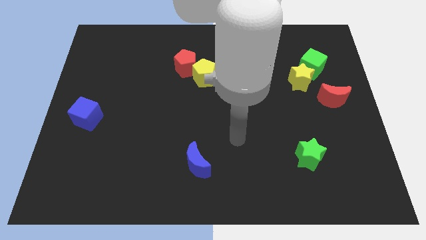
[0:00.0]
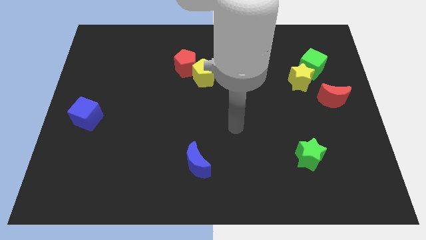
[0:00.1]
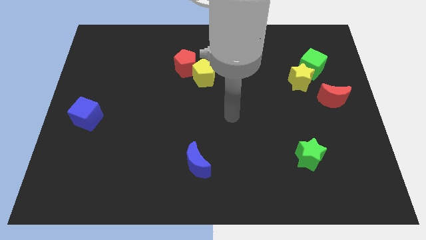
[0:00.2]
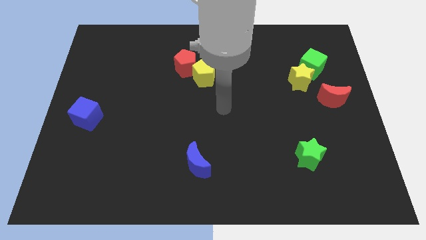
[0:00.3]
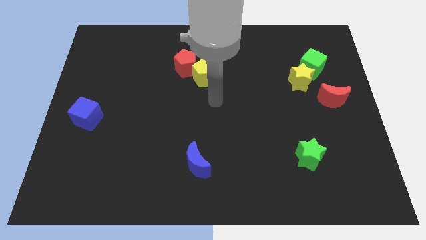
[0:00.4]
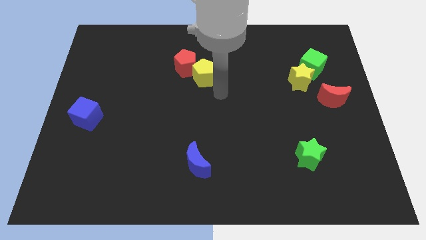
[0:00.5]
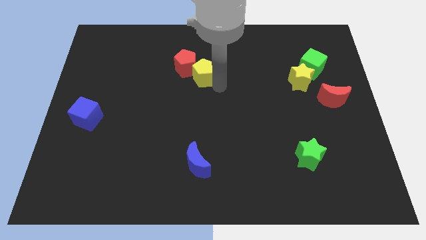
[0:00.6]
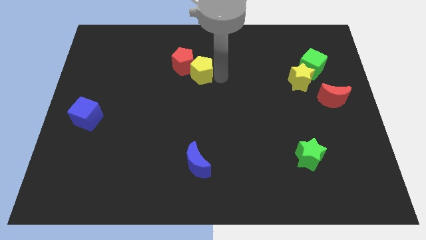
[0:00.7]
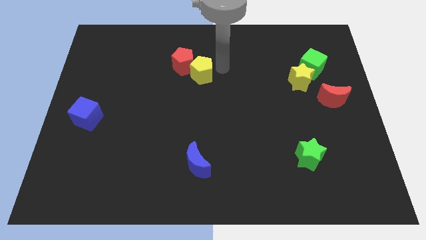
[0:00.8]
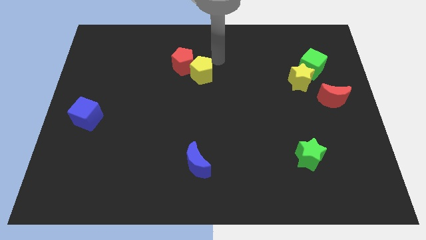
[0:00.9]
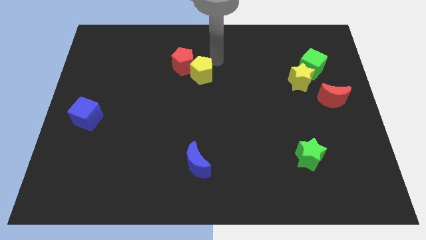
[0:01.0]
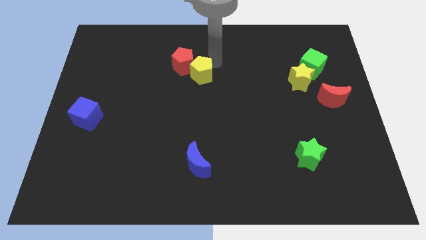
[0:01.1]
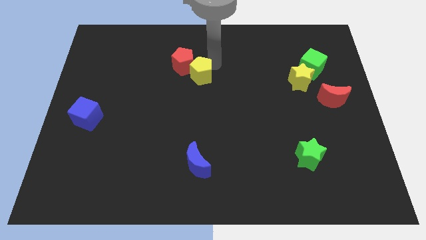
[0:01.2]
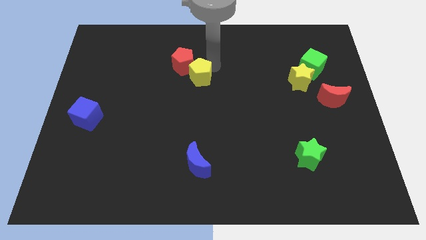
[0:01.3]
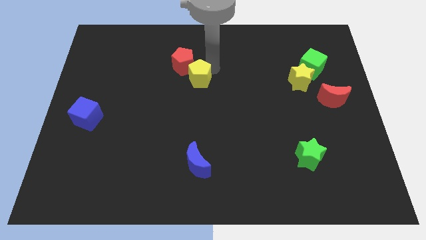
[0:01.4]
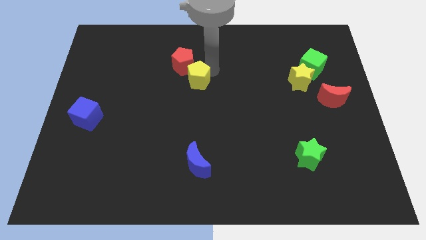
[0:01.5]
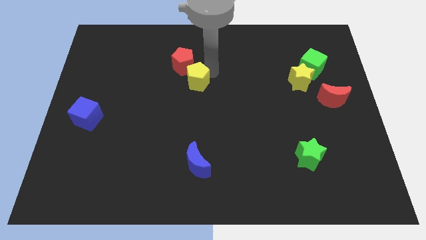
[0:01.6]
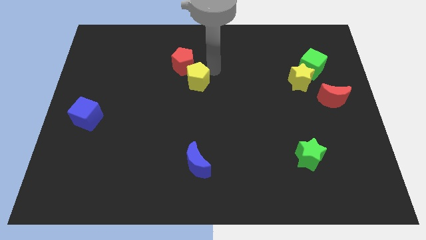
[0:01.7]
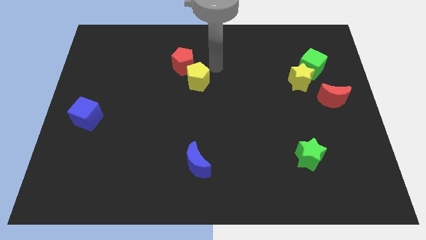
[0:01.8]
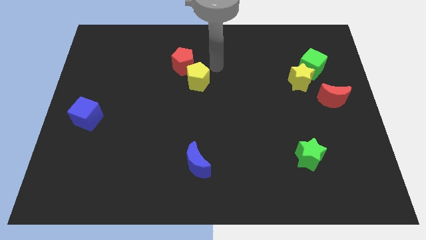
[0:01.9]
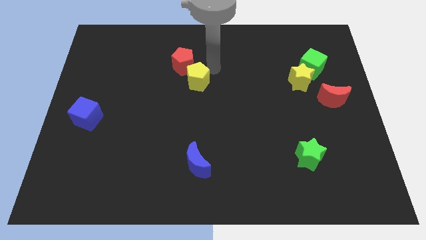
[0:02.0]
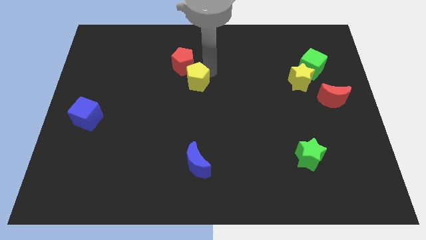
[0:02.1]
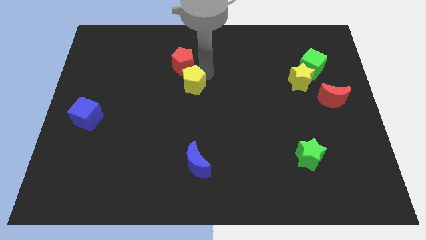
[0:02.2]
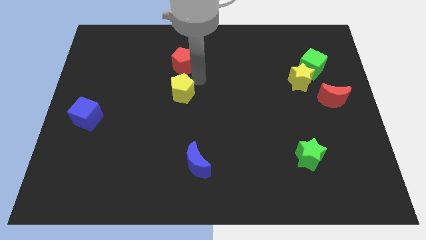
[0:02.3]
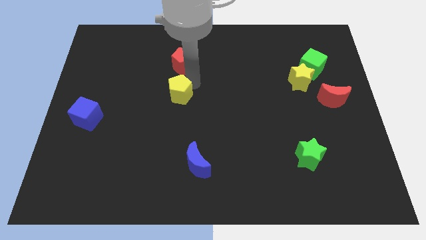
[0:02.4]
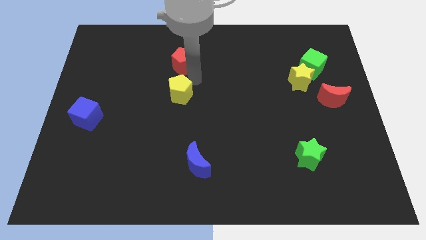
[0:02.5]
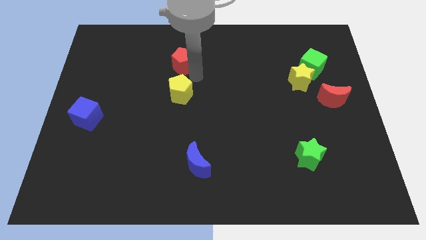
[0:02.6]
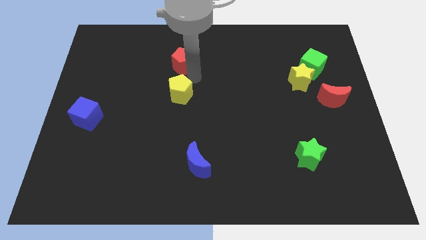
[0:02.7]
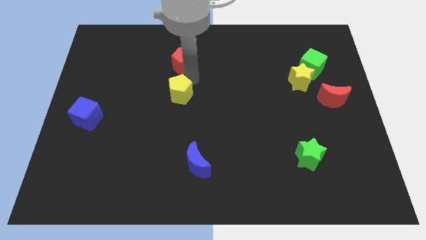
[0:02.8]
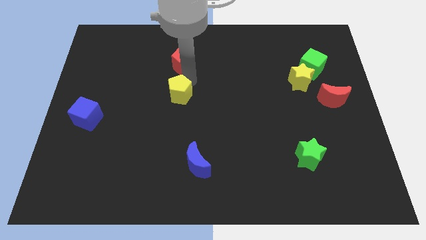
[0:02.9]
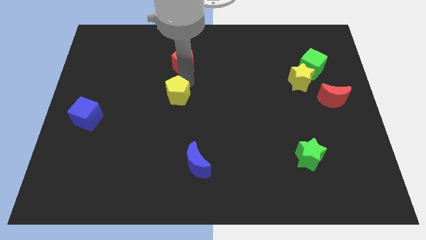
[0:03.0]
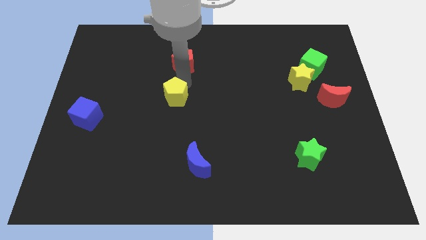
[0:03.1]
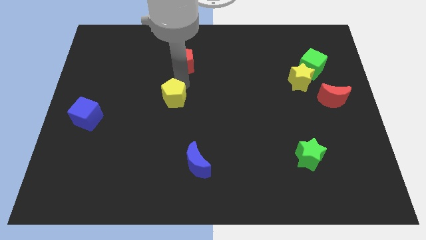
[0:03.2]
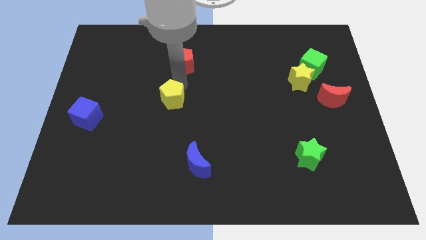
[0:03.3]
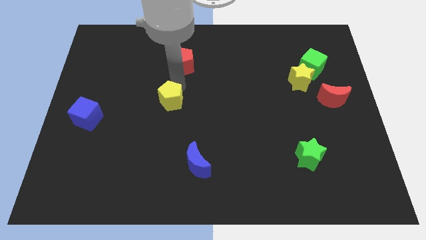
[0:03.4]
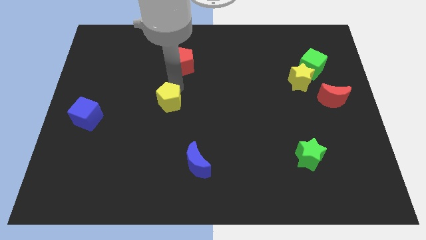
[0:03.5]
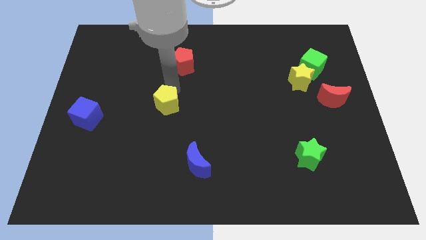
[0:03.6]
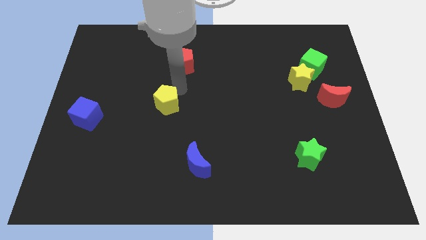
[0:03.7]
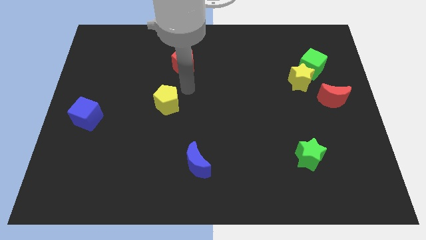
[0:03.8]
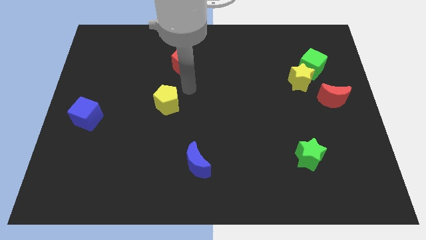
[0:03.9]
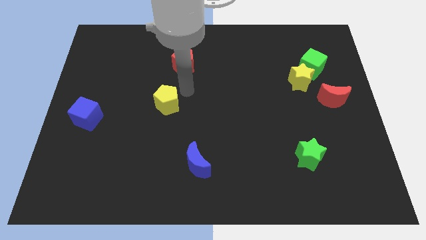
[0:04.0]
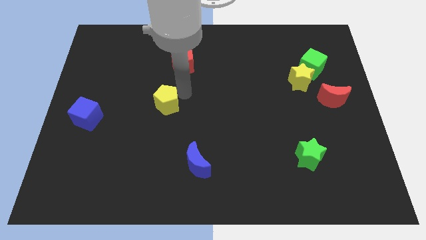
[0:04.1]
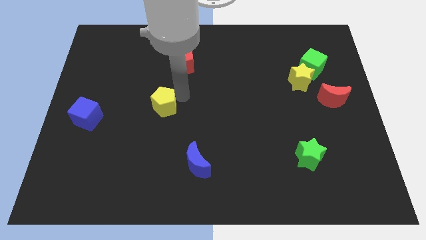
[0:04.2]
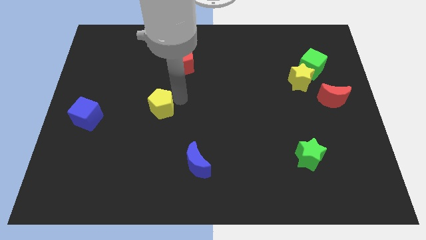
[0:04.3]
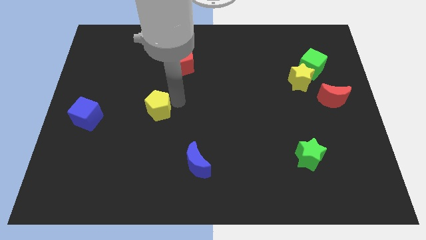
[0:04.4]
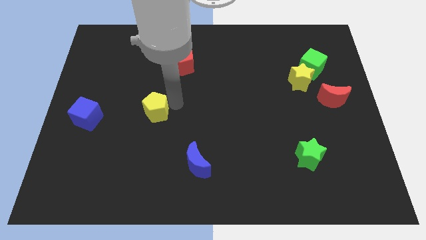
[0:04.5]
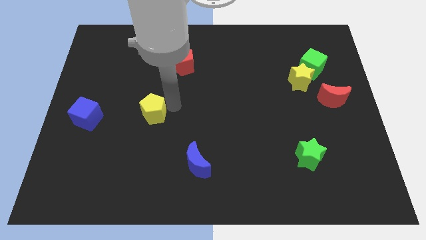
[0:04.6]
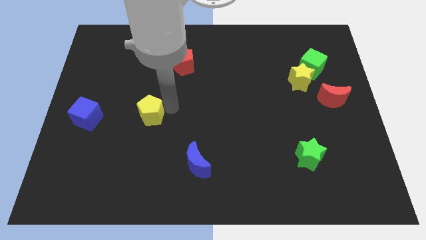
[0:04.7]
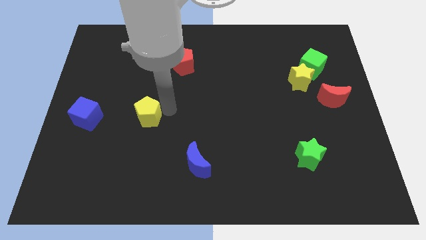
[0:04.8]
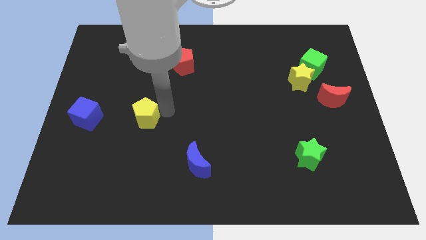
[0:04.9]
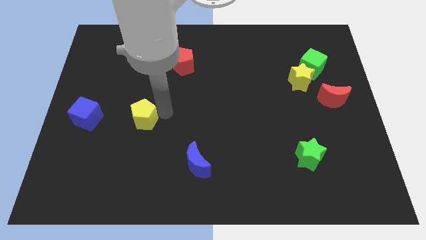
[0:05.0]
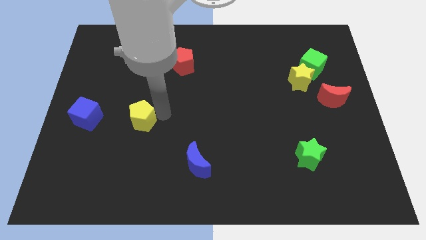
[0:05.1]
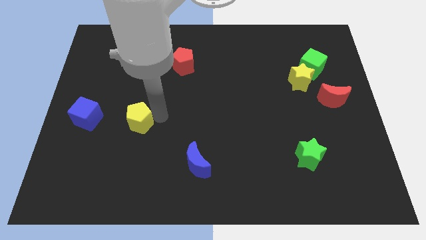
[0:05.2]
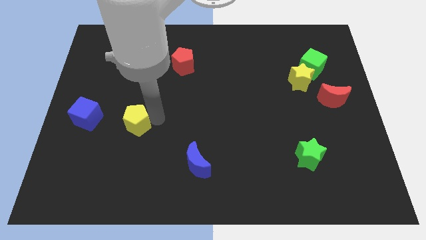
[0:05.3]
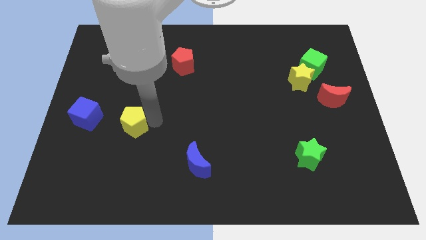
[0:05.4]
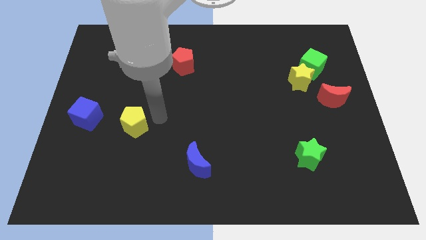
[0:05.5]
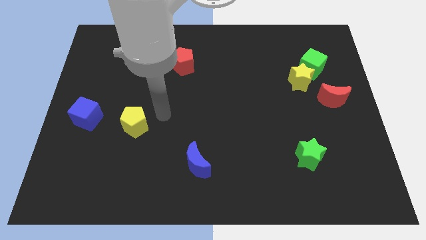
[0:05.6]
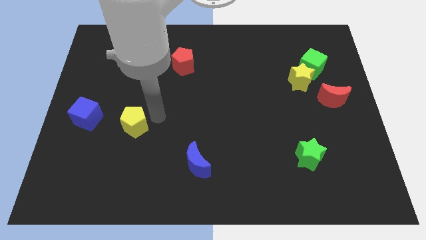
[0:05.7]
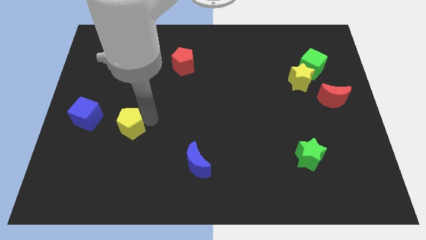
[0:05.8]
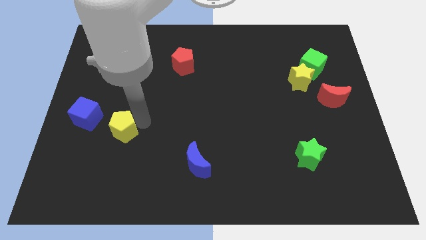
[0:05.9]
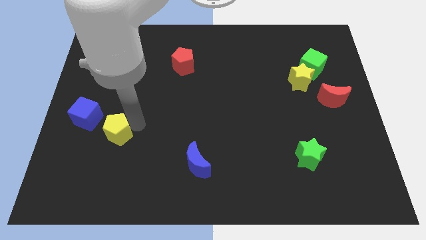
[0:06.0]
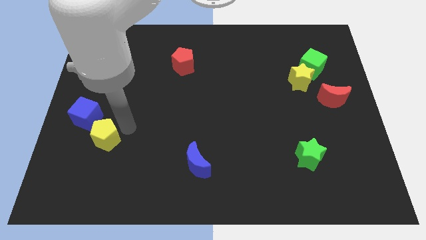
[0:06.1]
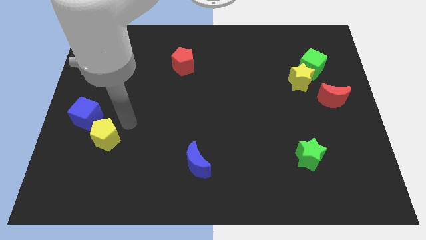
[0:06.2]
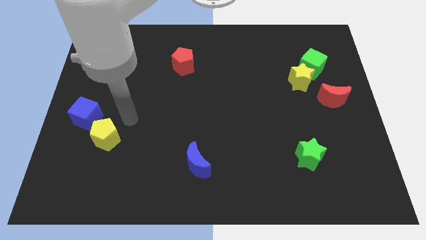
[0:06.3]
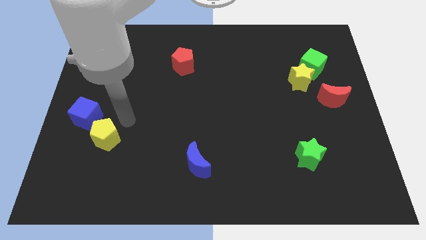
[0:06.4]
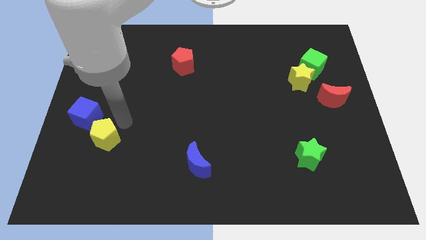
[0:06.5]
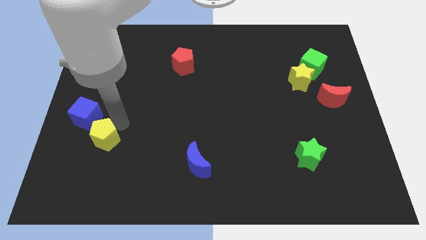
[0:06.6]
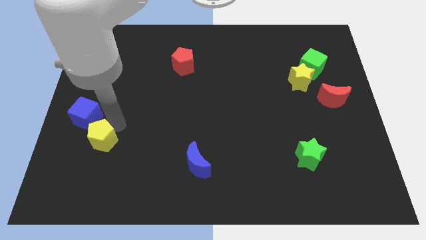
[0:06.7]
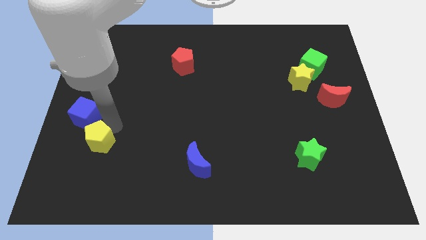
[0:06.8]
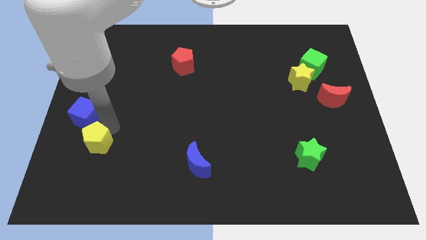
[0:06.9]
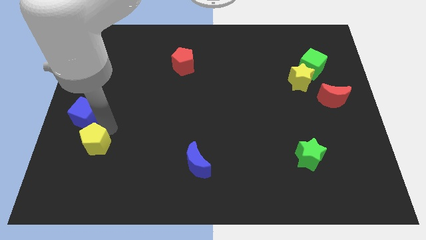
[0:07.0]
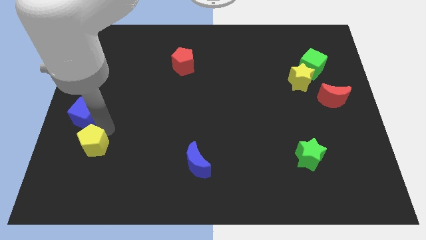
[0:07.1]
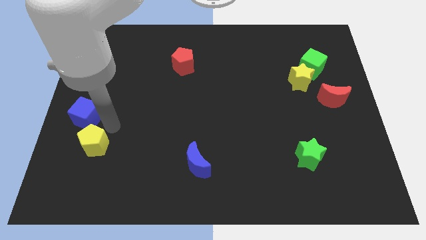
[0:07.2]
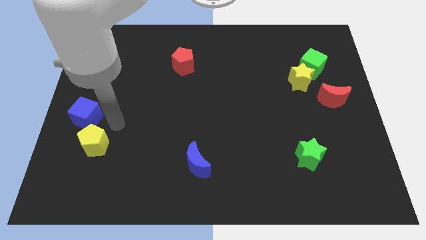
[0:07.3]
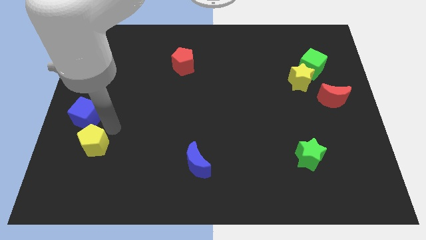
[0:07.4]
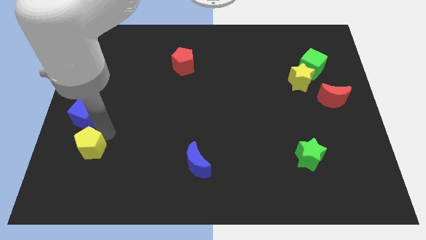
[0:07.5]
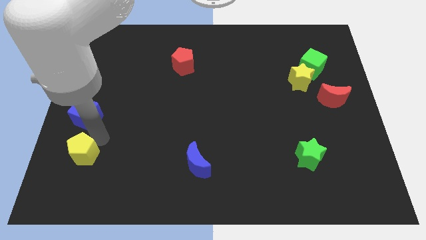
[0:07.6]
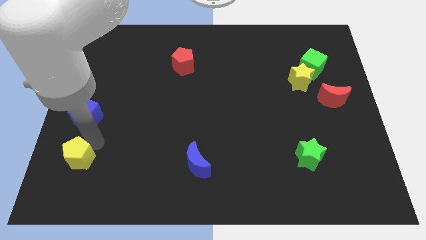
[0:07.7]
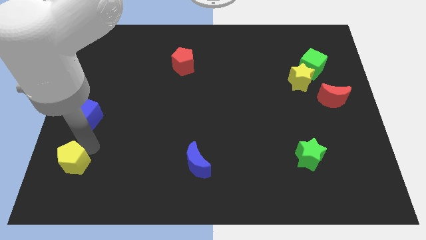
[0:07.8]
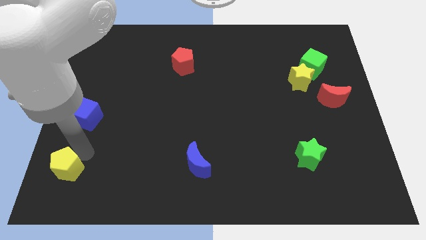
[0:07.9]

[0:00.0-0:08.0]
push the yellow pentagon to the bottom left

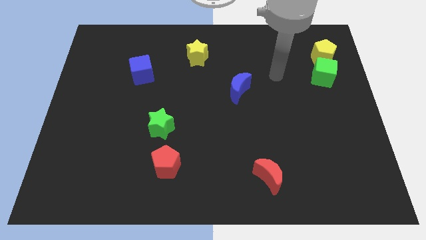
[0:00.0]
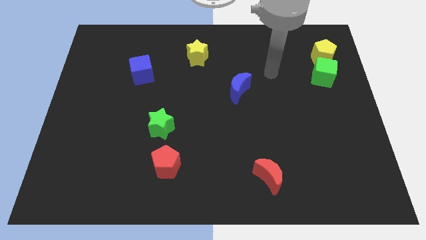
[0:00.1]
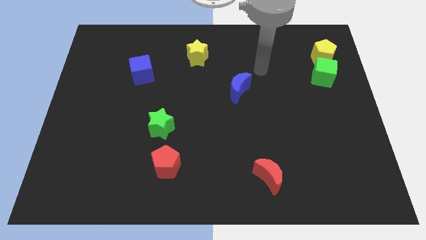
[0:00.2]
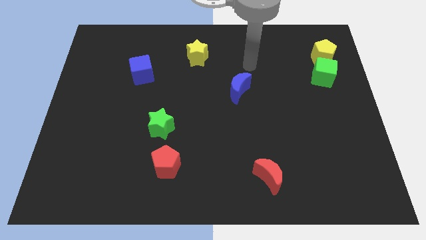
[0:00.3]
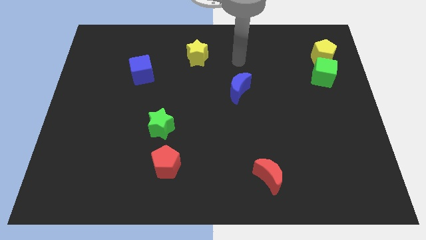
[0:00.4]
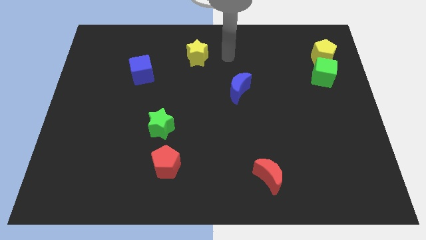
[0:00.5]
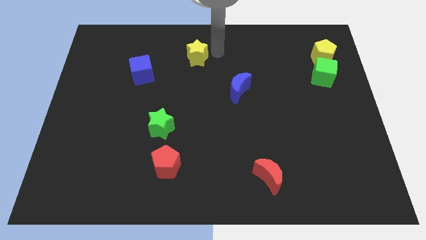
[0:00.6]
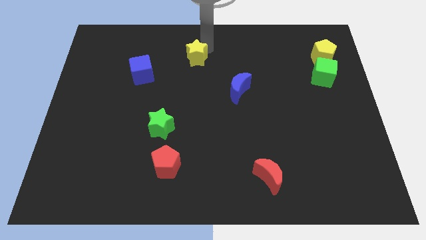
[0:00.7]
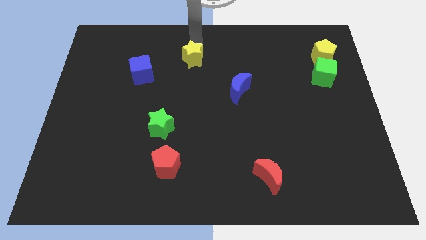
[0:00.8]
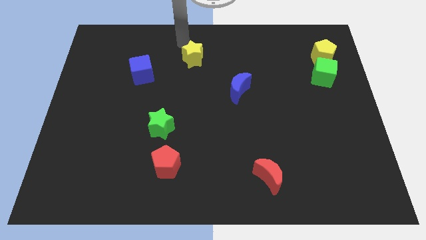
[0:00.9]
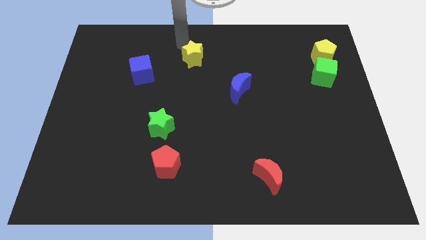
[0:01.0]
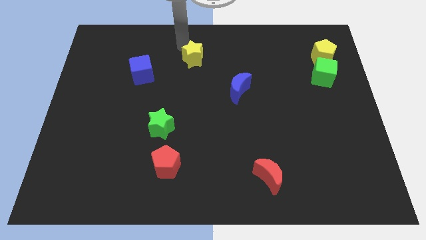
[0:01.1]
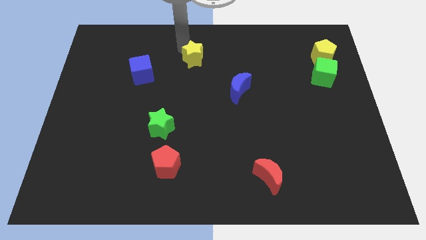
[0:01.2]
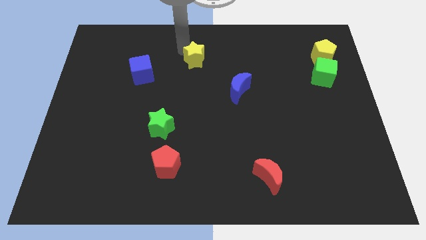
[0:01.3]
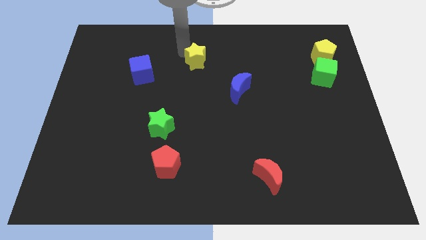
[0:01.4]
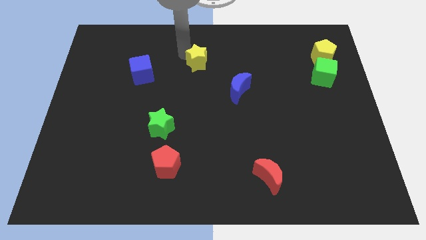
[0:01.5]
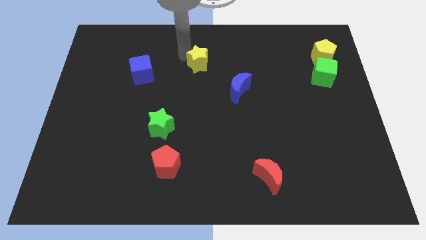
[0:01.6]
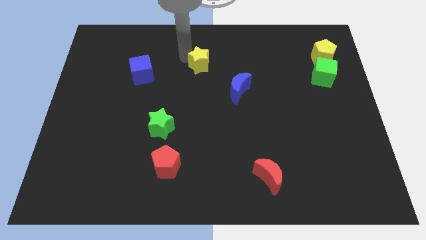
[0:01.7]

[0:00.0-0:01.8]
push the yellow star to the center
